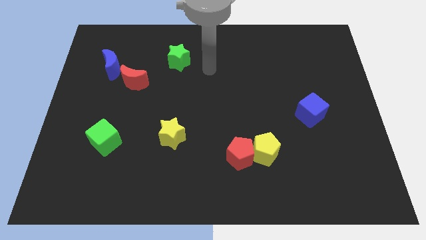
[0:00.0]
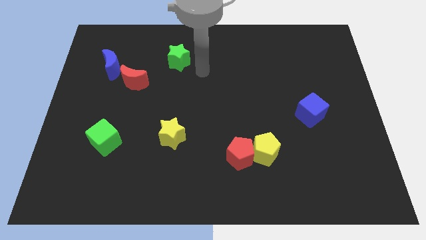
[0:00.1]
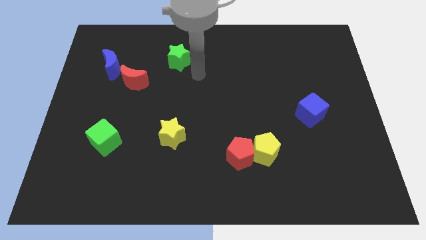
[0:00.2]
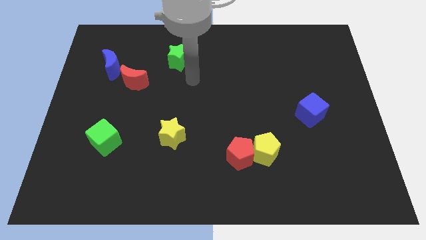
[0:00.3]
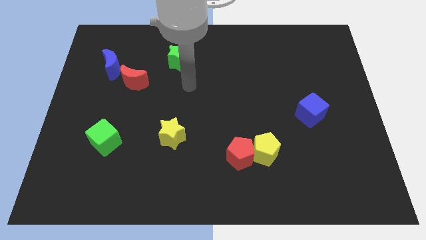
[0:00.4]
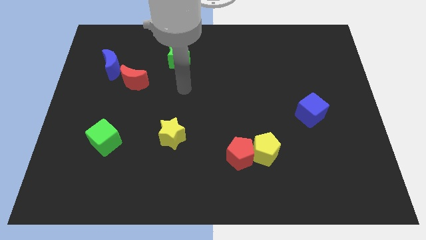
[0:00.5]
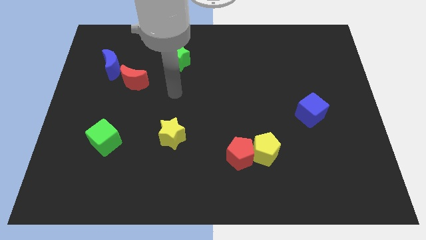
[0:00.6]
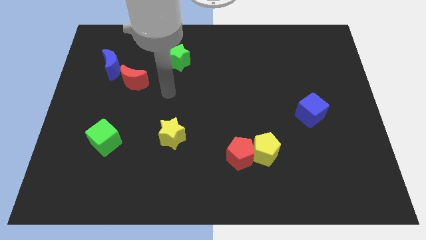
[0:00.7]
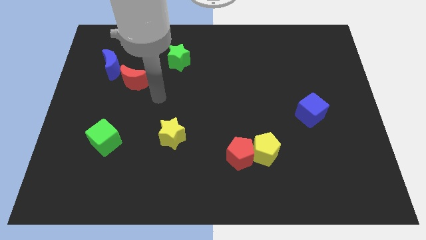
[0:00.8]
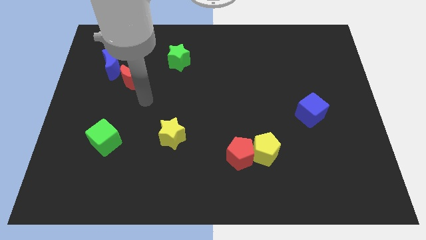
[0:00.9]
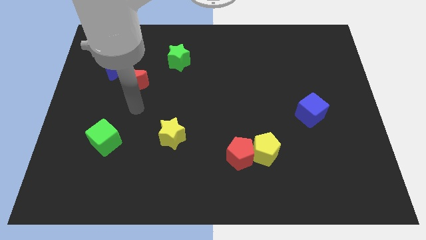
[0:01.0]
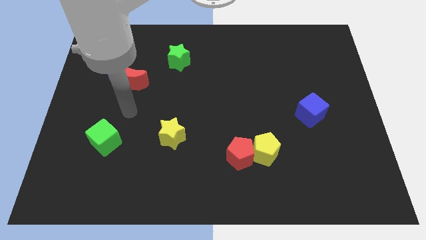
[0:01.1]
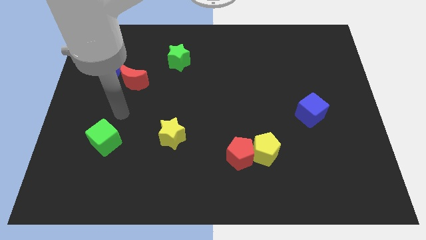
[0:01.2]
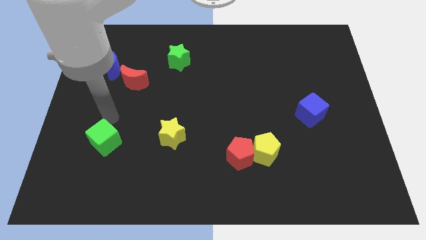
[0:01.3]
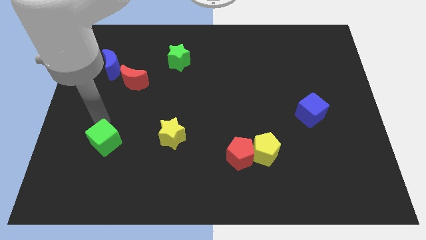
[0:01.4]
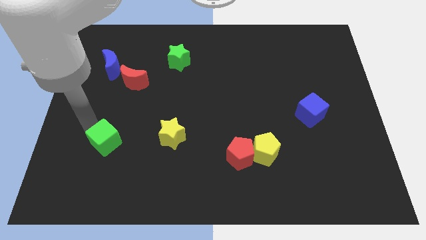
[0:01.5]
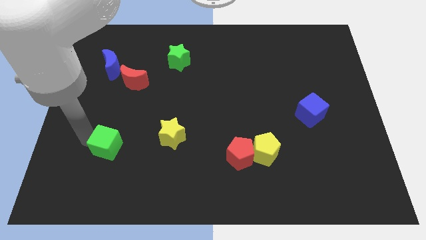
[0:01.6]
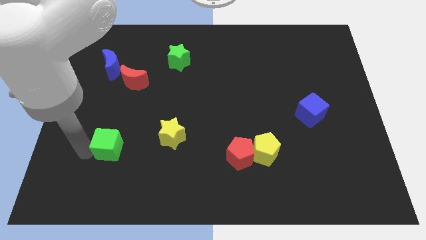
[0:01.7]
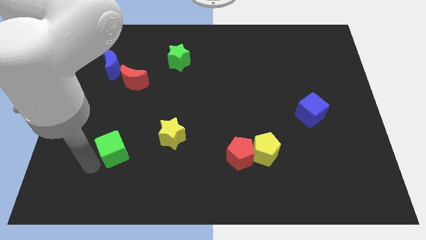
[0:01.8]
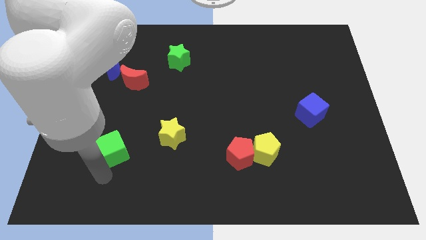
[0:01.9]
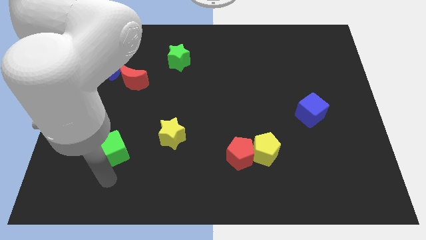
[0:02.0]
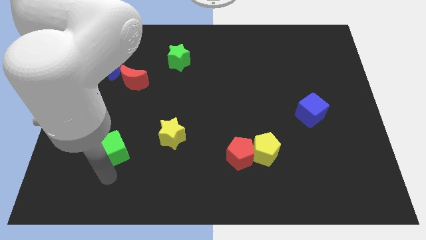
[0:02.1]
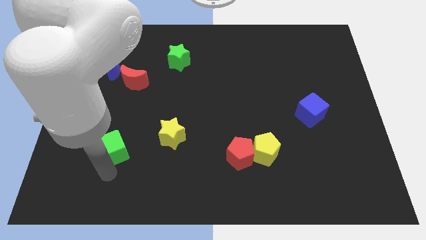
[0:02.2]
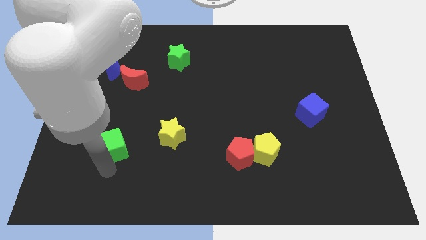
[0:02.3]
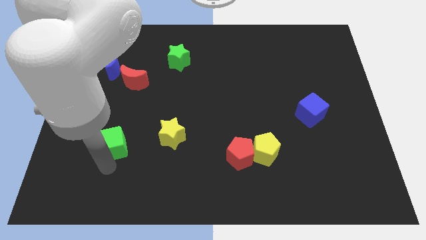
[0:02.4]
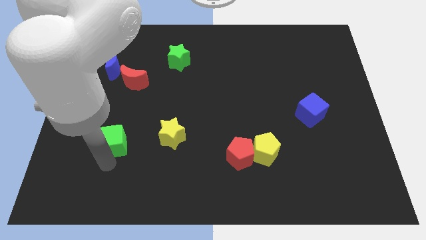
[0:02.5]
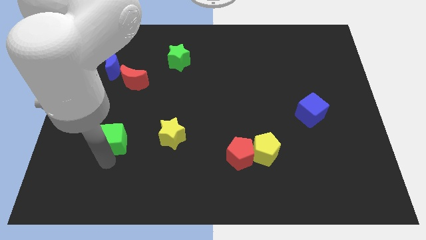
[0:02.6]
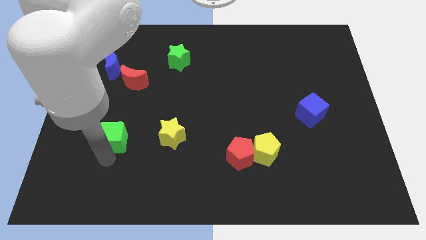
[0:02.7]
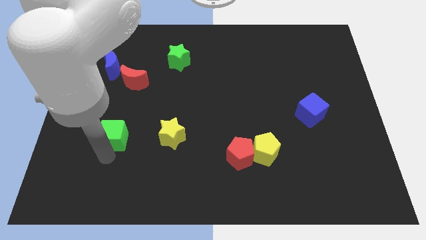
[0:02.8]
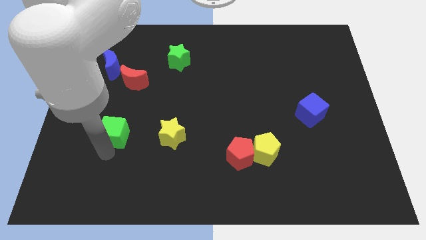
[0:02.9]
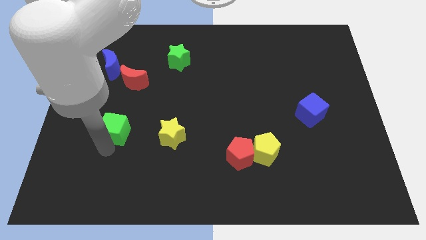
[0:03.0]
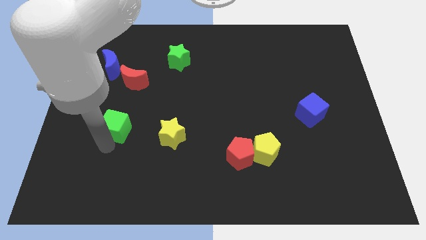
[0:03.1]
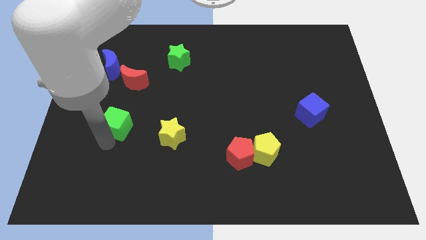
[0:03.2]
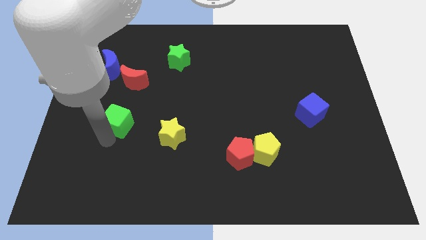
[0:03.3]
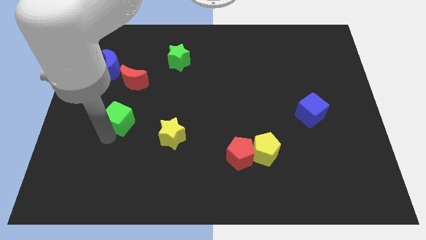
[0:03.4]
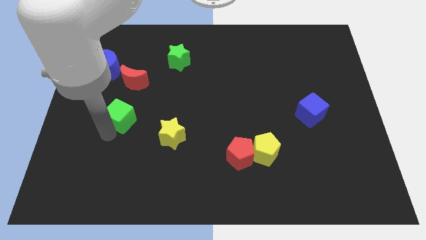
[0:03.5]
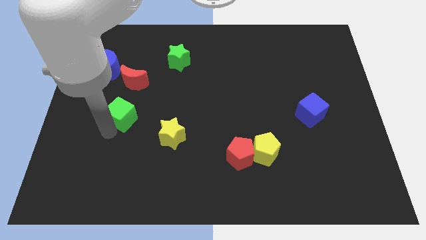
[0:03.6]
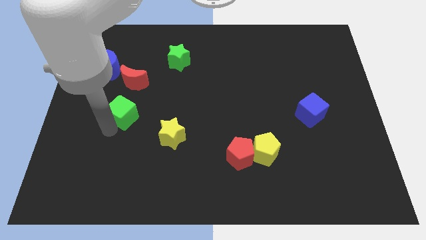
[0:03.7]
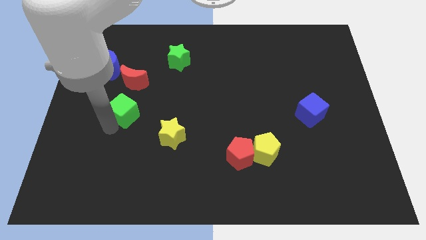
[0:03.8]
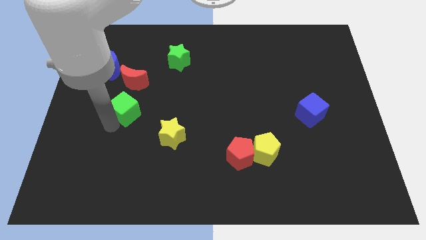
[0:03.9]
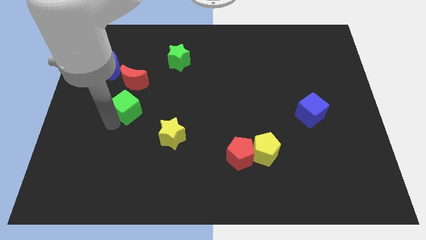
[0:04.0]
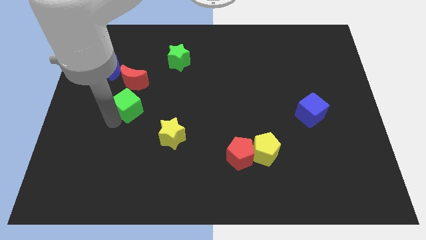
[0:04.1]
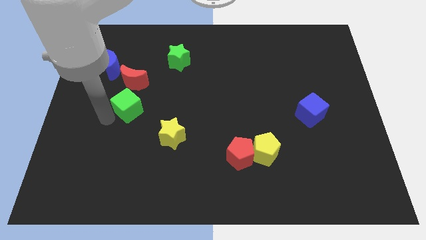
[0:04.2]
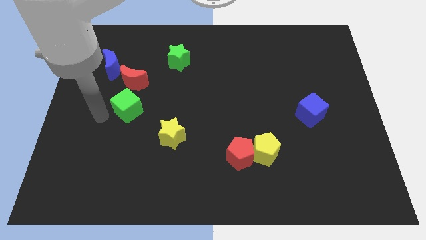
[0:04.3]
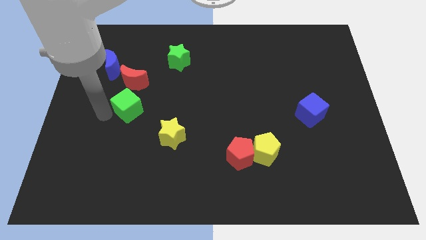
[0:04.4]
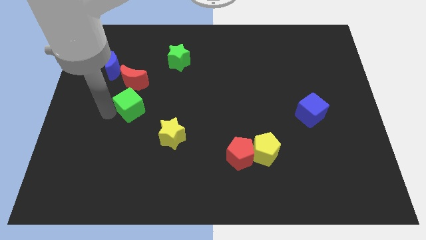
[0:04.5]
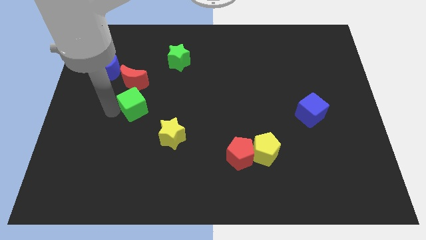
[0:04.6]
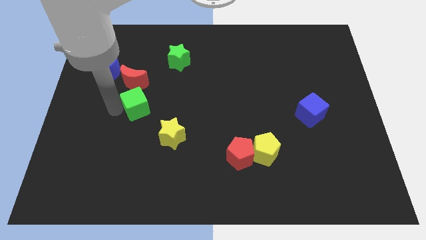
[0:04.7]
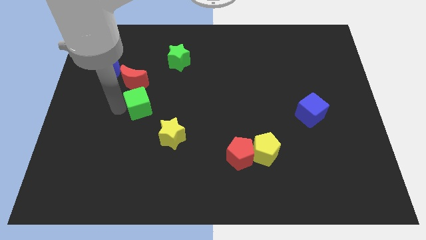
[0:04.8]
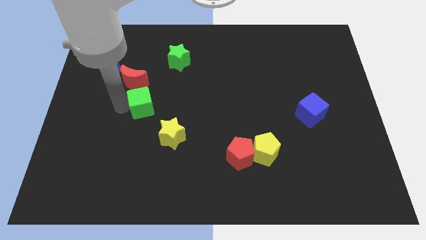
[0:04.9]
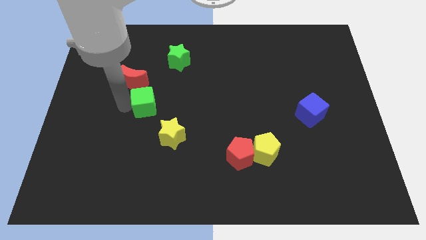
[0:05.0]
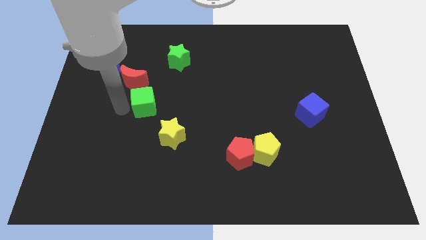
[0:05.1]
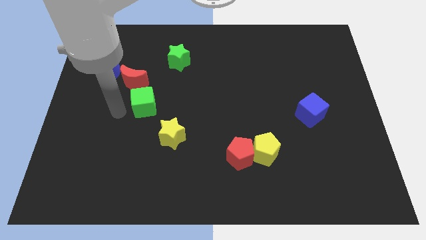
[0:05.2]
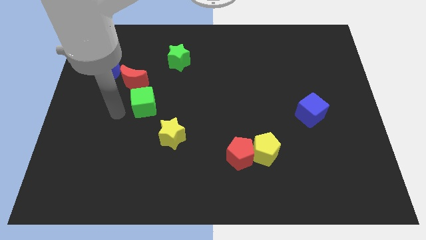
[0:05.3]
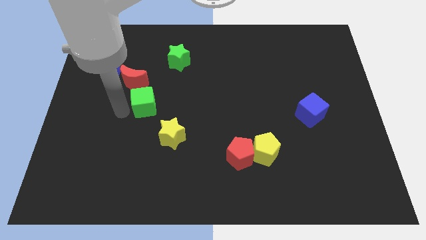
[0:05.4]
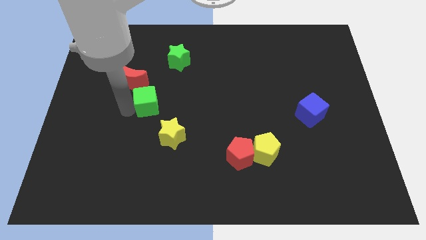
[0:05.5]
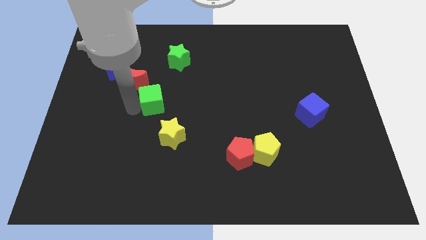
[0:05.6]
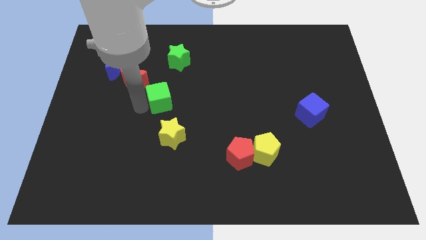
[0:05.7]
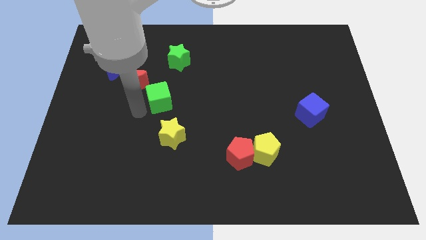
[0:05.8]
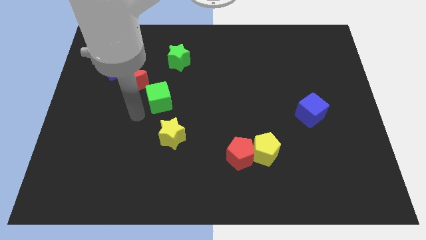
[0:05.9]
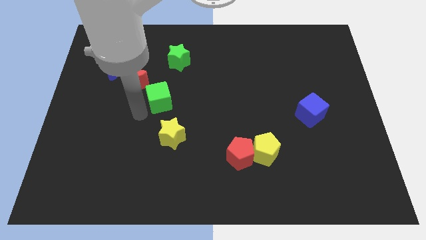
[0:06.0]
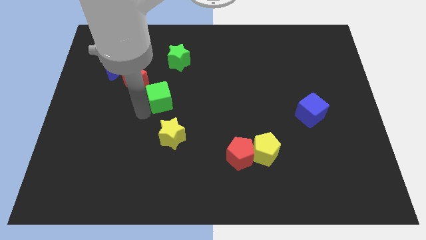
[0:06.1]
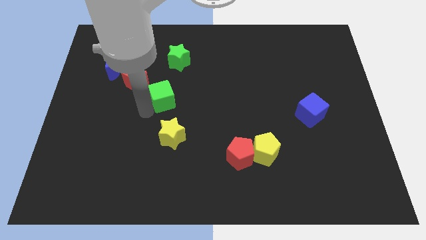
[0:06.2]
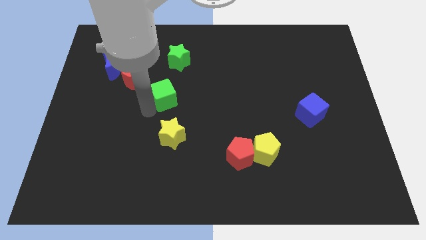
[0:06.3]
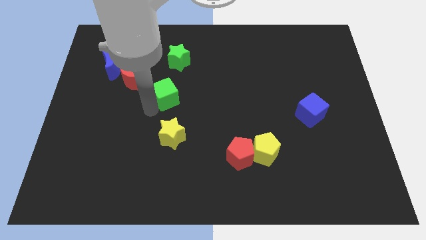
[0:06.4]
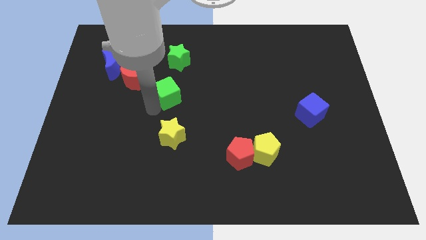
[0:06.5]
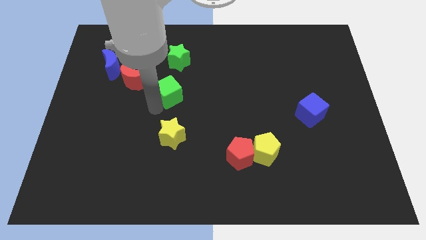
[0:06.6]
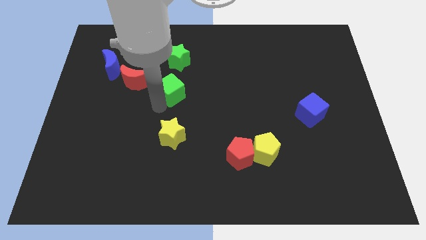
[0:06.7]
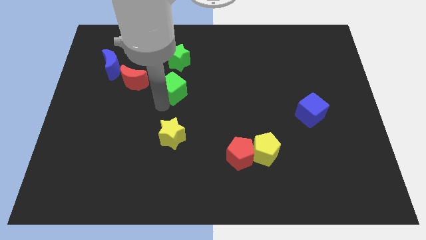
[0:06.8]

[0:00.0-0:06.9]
push the green cube diagonally upwards and to the right

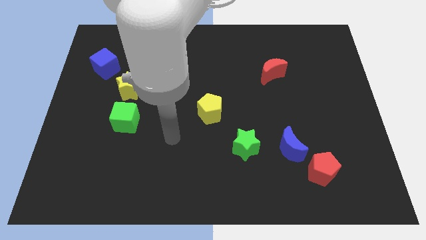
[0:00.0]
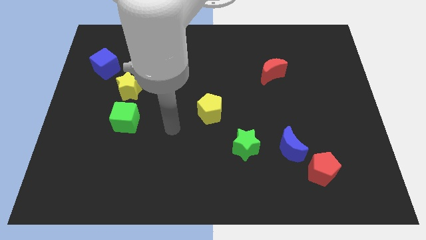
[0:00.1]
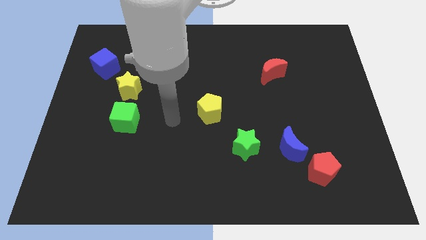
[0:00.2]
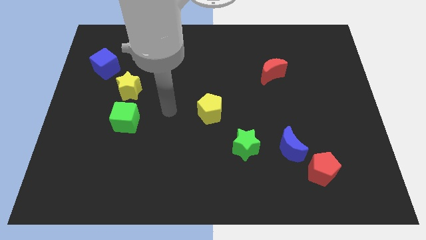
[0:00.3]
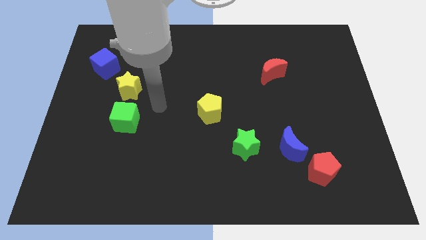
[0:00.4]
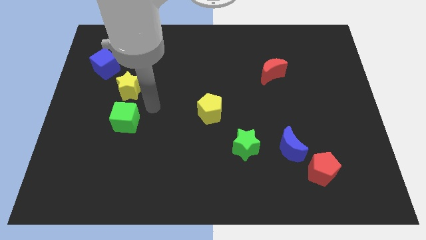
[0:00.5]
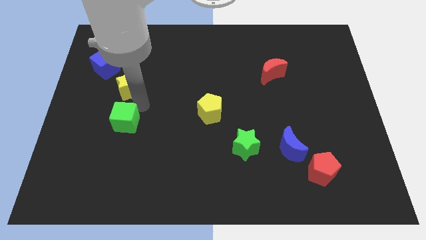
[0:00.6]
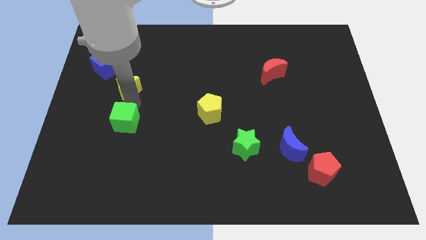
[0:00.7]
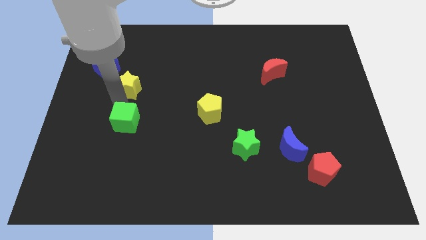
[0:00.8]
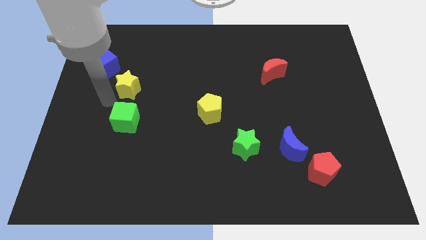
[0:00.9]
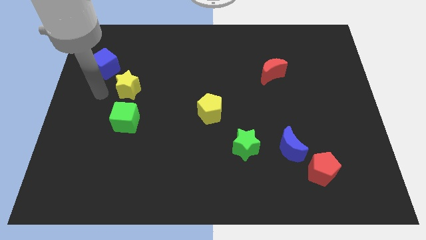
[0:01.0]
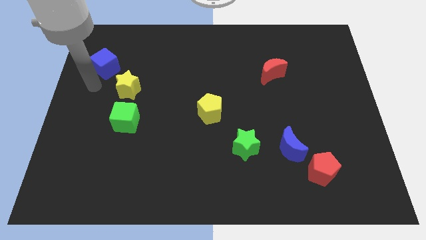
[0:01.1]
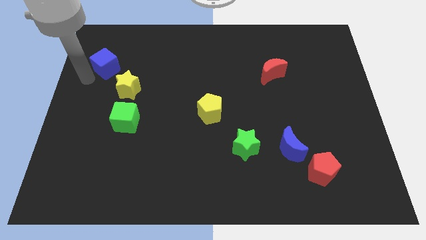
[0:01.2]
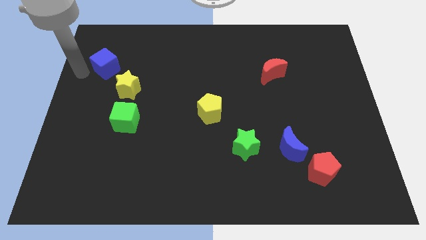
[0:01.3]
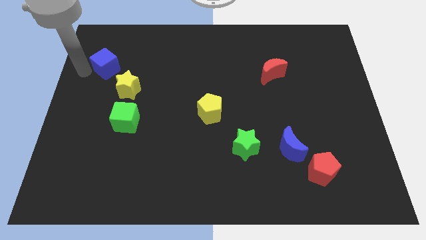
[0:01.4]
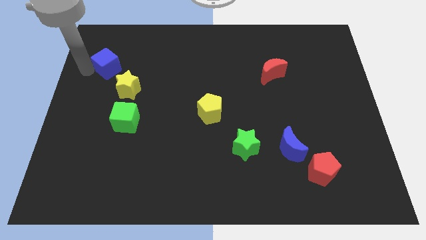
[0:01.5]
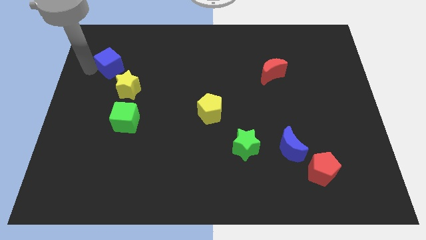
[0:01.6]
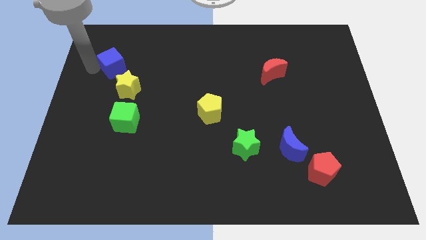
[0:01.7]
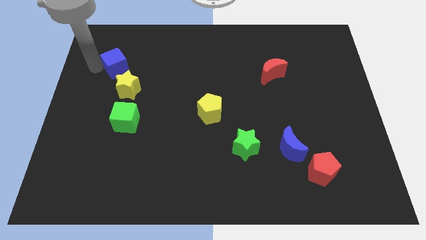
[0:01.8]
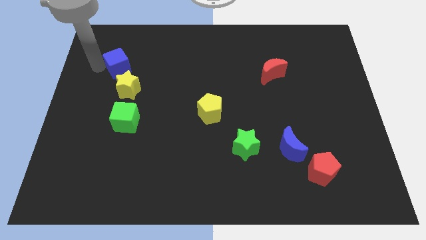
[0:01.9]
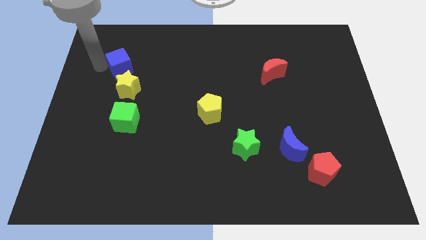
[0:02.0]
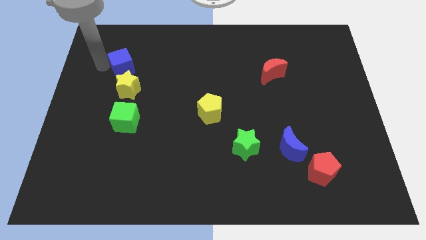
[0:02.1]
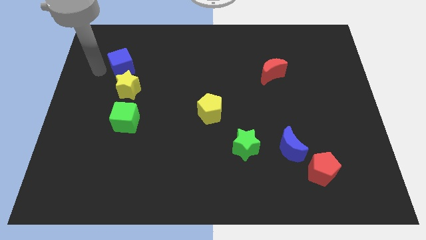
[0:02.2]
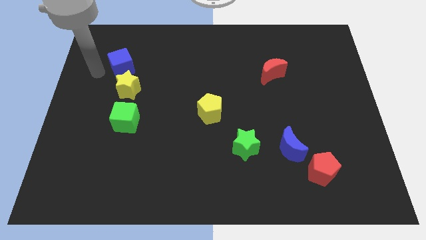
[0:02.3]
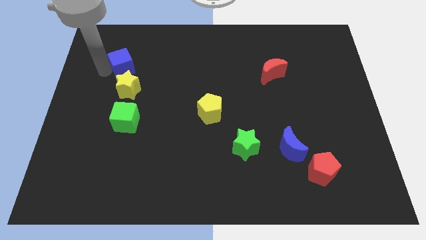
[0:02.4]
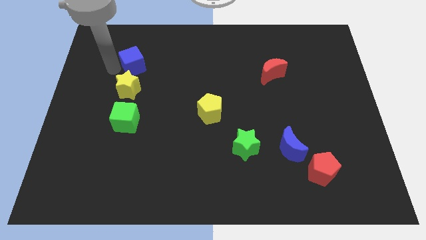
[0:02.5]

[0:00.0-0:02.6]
slide the blue cube a bit right
